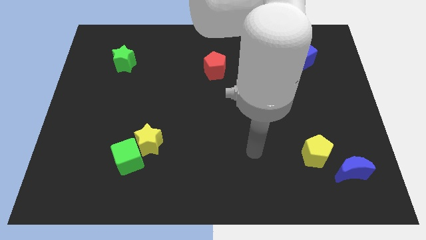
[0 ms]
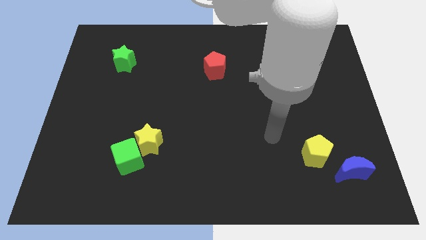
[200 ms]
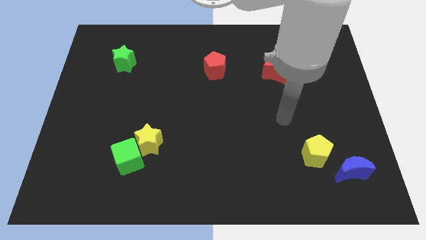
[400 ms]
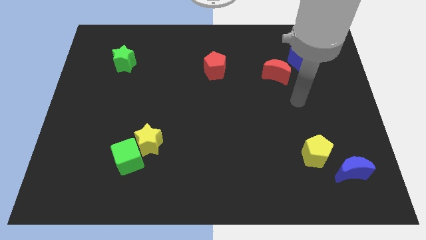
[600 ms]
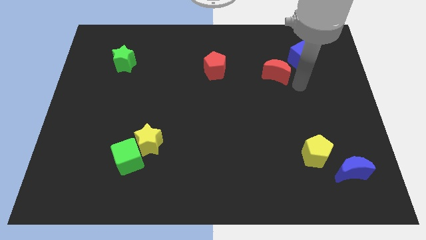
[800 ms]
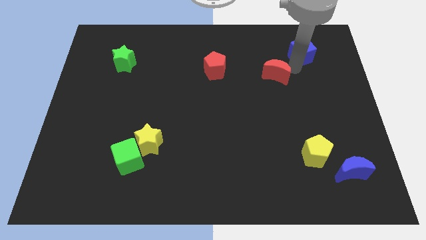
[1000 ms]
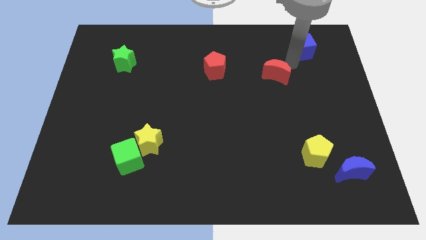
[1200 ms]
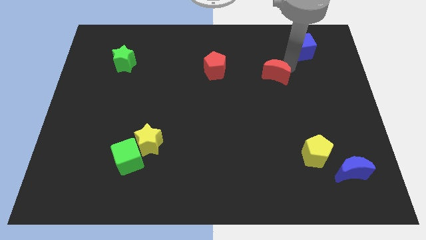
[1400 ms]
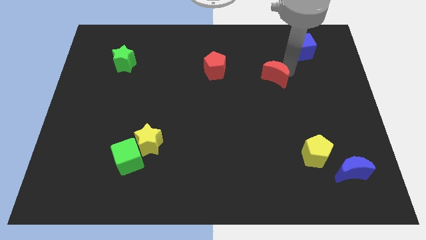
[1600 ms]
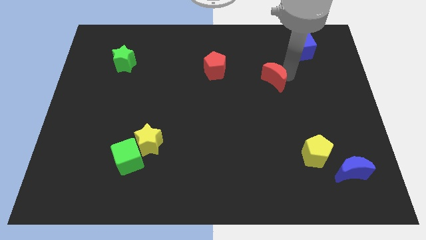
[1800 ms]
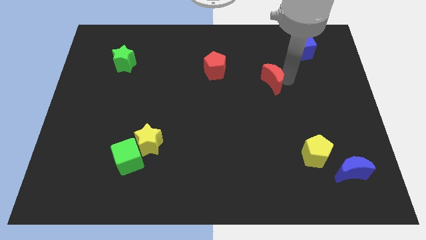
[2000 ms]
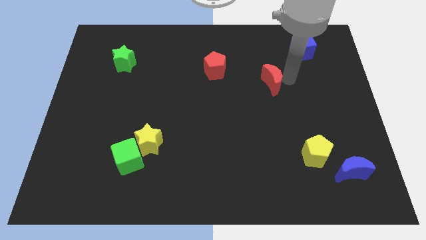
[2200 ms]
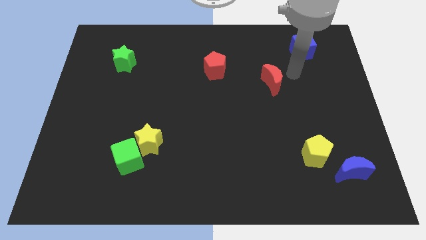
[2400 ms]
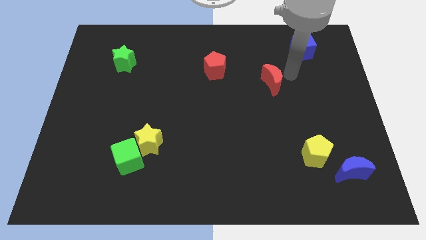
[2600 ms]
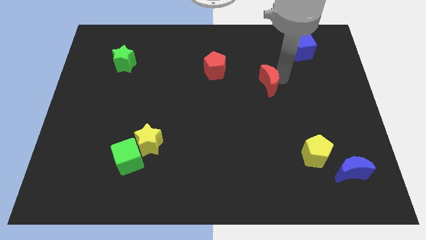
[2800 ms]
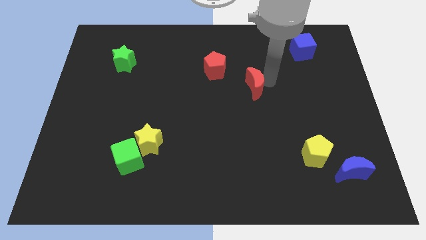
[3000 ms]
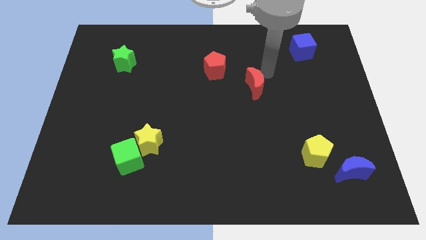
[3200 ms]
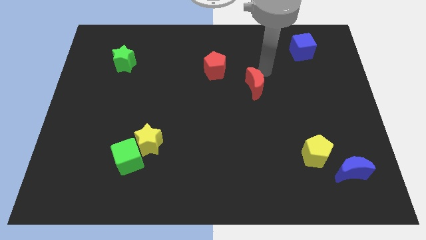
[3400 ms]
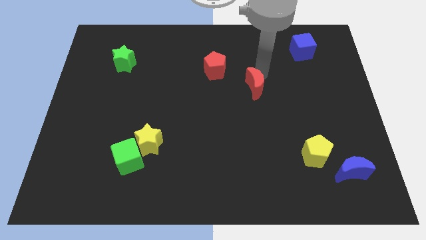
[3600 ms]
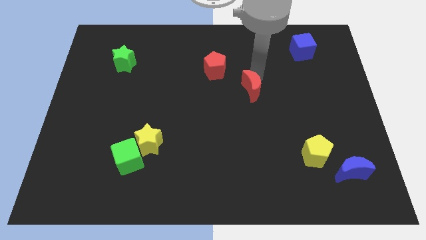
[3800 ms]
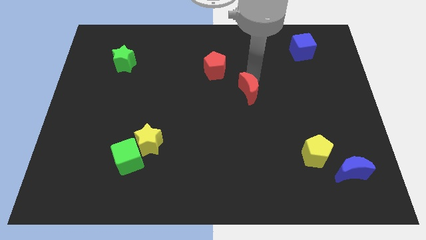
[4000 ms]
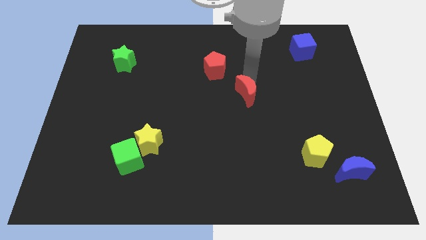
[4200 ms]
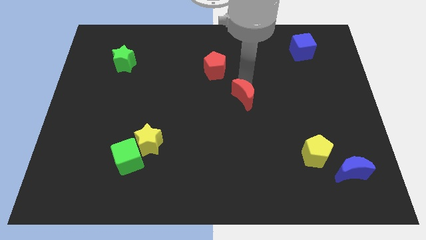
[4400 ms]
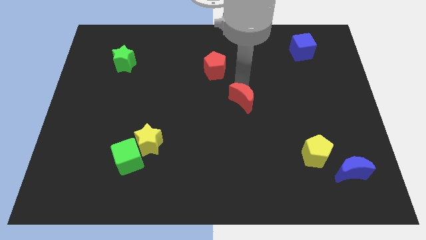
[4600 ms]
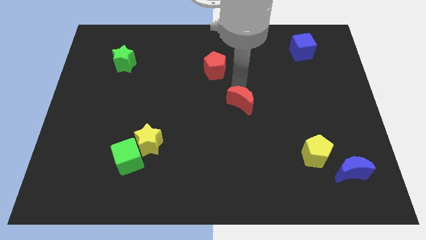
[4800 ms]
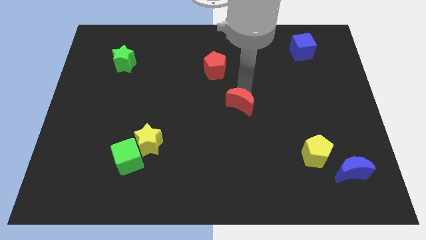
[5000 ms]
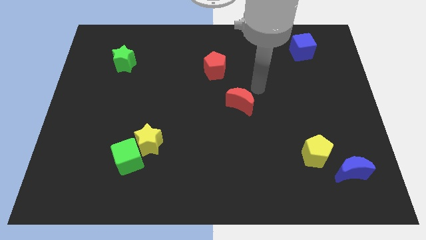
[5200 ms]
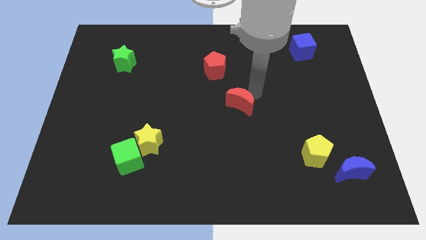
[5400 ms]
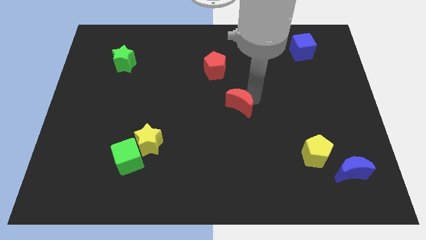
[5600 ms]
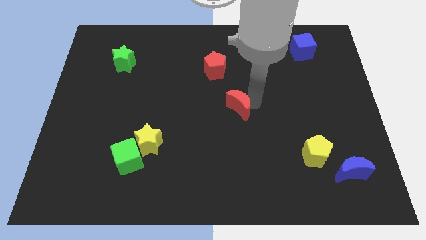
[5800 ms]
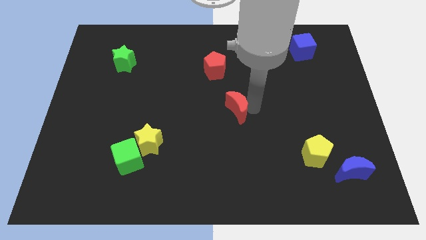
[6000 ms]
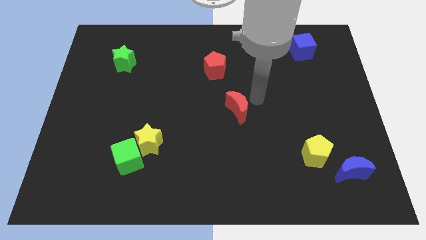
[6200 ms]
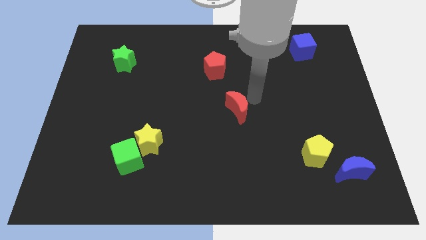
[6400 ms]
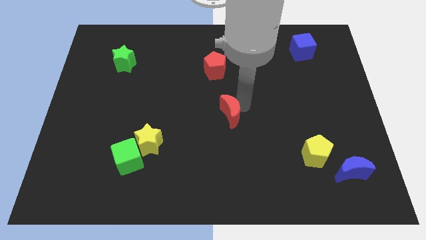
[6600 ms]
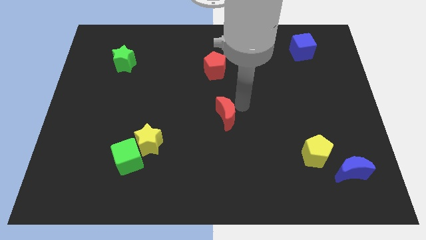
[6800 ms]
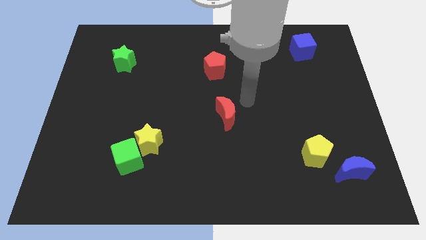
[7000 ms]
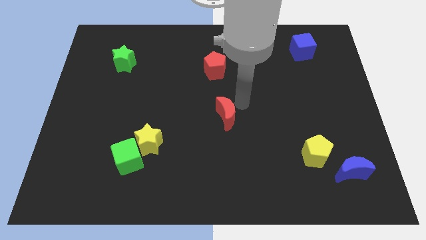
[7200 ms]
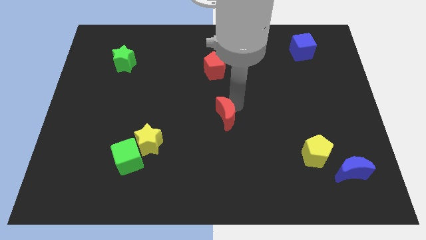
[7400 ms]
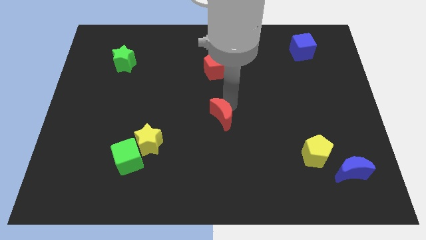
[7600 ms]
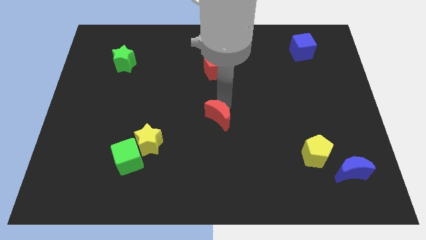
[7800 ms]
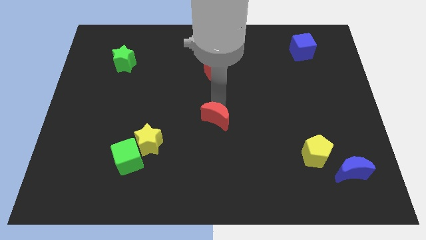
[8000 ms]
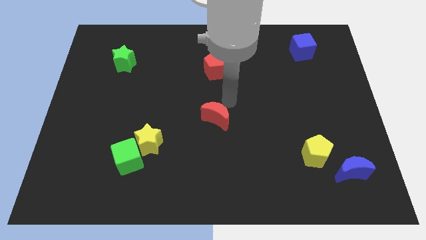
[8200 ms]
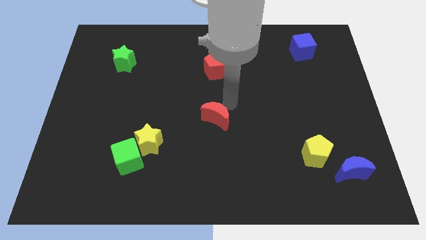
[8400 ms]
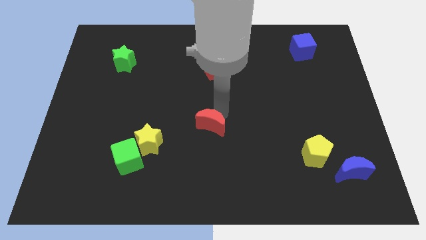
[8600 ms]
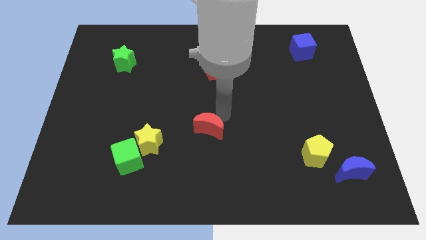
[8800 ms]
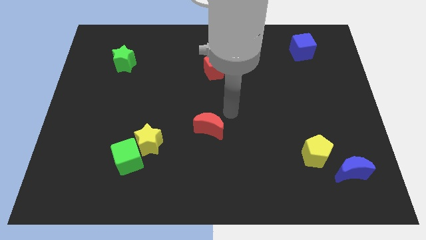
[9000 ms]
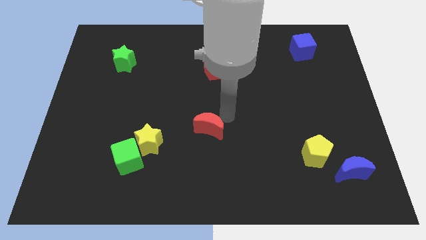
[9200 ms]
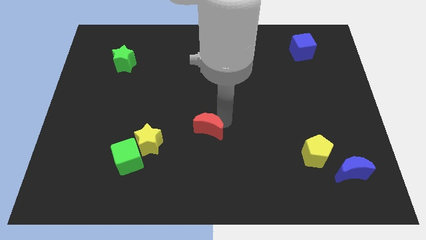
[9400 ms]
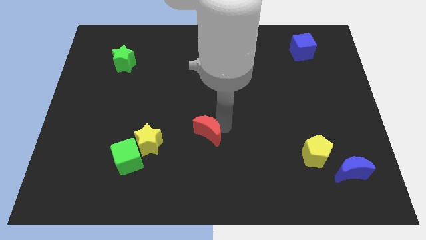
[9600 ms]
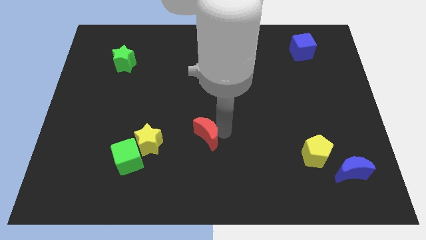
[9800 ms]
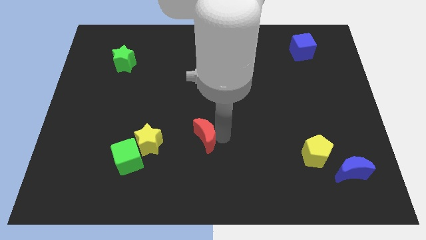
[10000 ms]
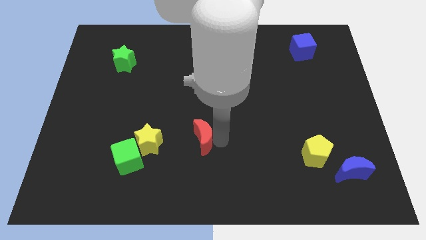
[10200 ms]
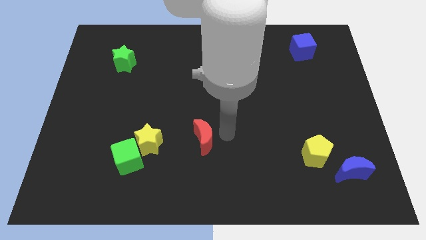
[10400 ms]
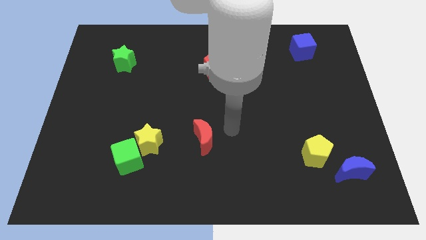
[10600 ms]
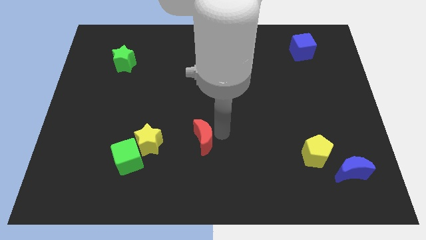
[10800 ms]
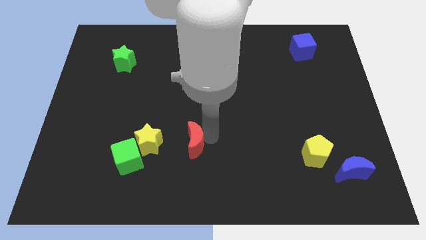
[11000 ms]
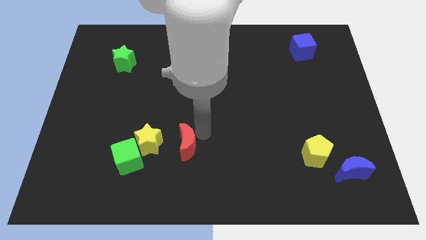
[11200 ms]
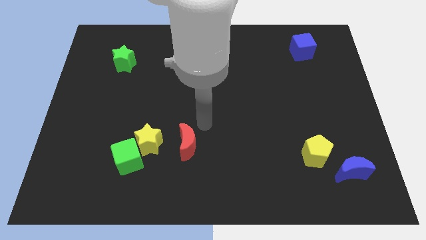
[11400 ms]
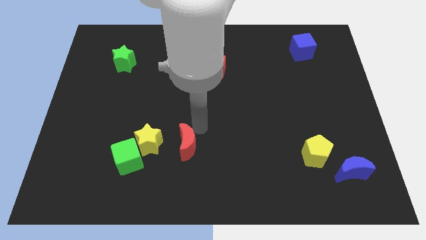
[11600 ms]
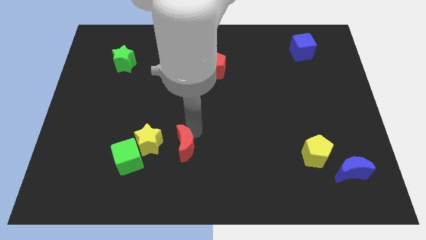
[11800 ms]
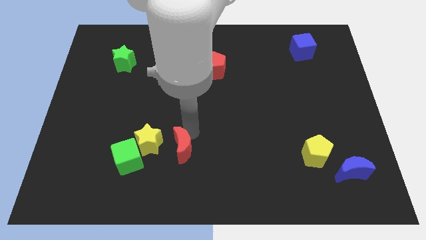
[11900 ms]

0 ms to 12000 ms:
push the red moon to the bottom right of the yellow star

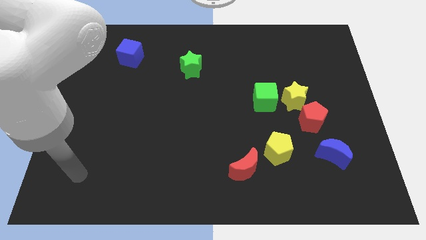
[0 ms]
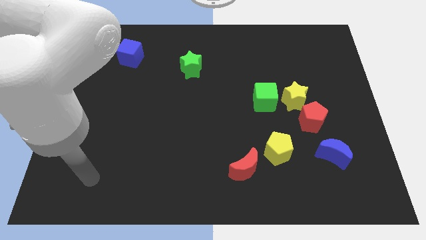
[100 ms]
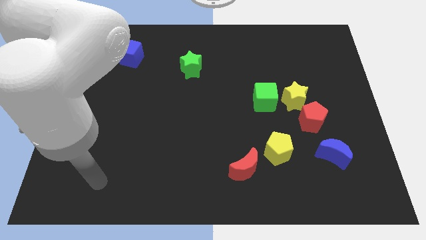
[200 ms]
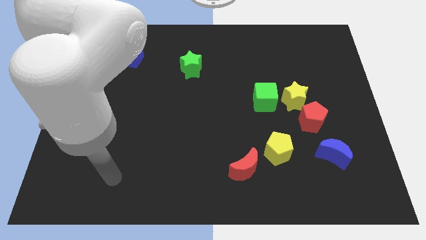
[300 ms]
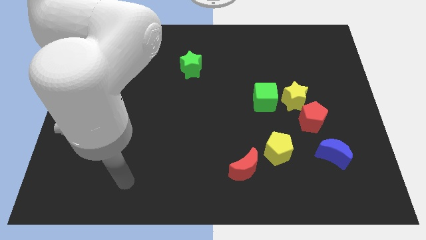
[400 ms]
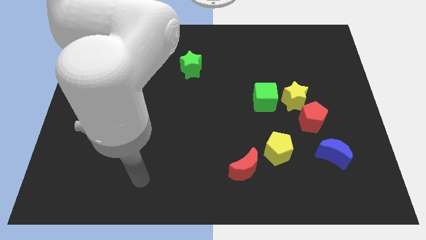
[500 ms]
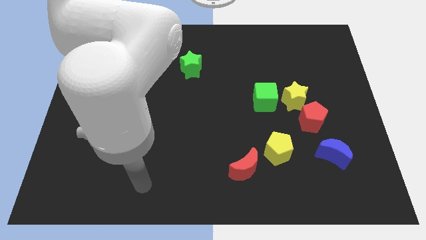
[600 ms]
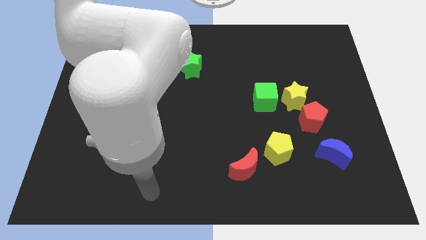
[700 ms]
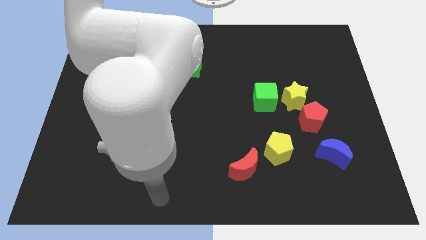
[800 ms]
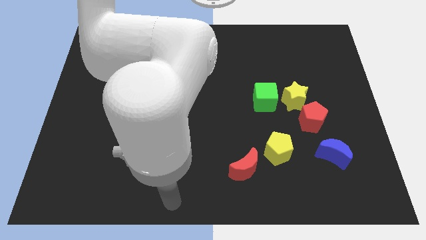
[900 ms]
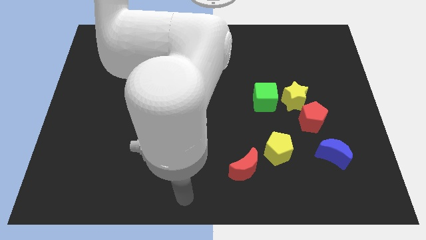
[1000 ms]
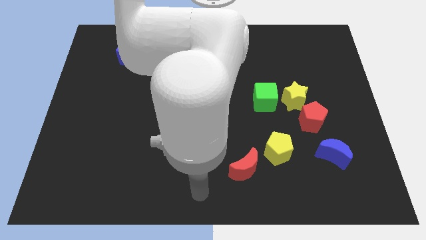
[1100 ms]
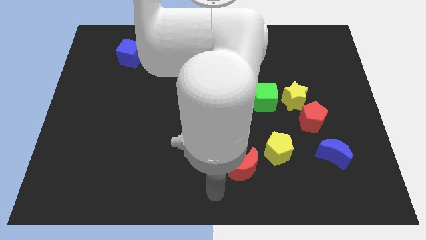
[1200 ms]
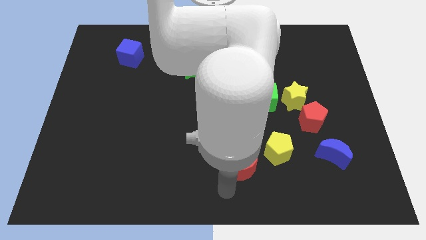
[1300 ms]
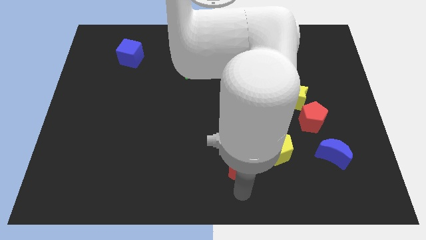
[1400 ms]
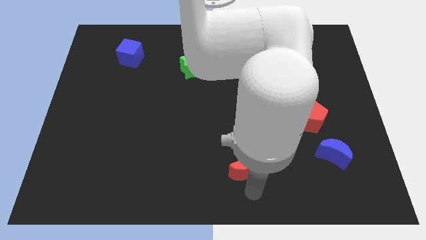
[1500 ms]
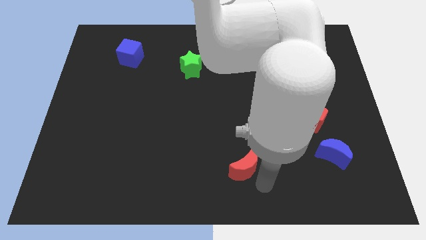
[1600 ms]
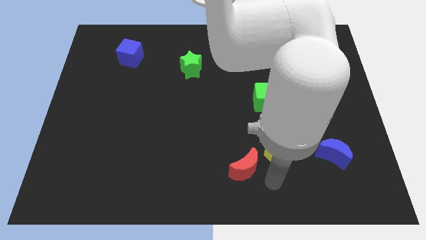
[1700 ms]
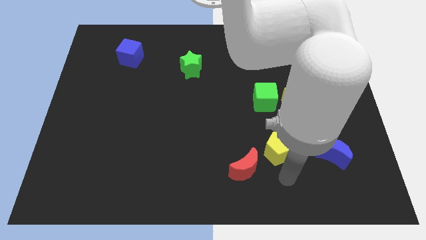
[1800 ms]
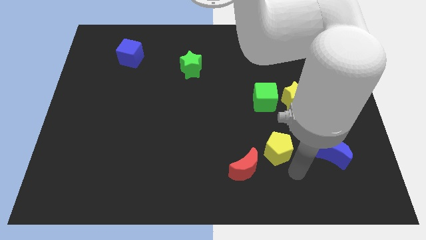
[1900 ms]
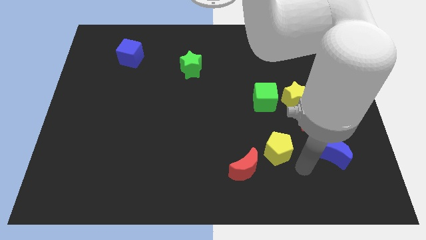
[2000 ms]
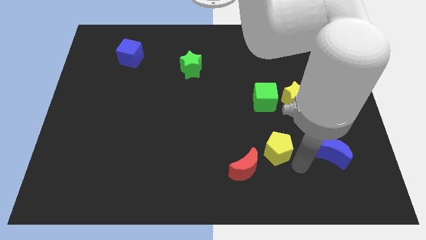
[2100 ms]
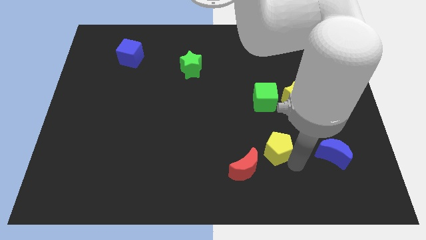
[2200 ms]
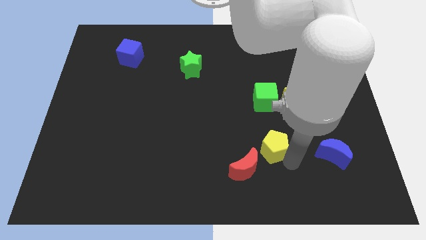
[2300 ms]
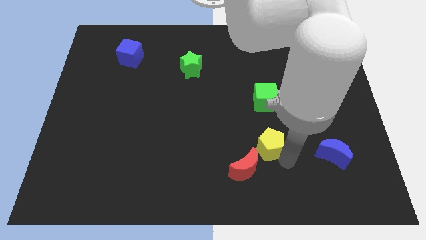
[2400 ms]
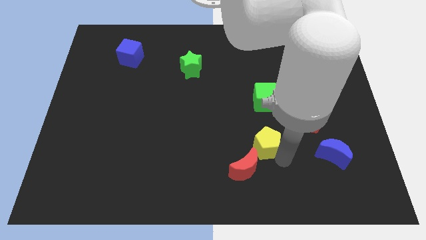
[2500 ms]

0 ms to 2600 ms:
slide the yellow pentagon above the red moon
